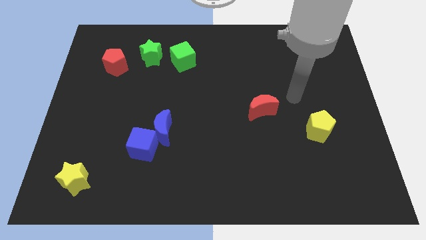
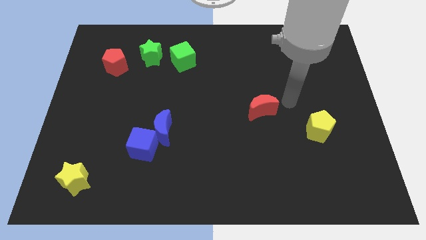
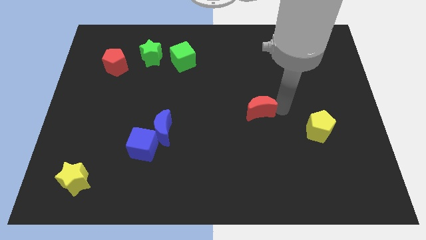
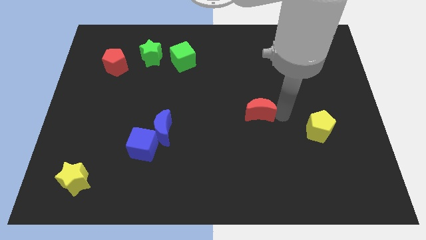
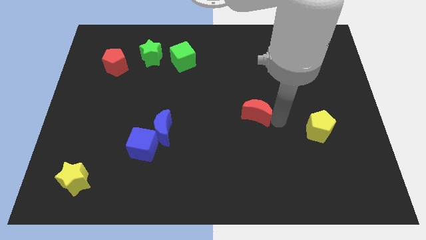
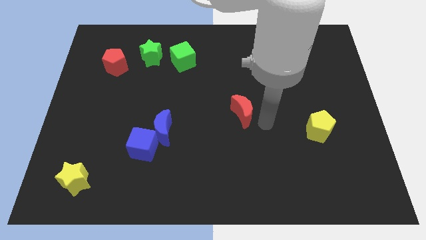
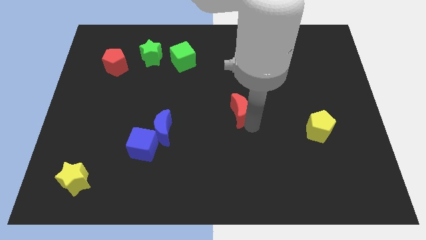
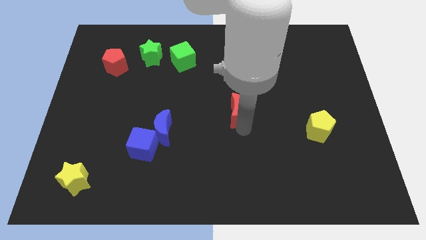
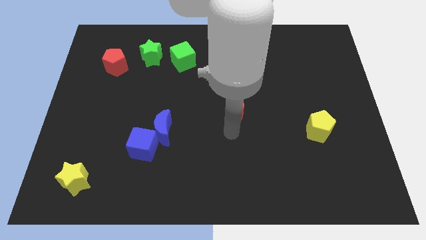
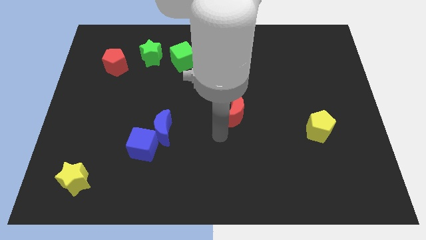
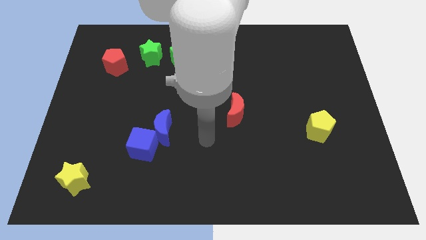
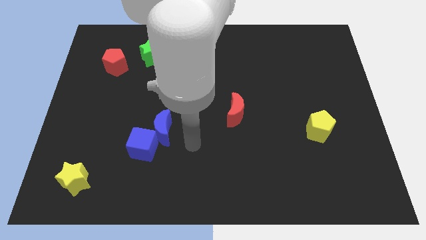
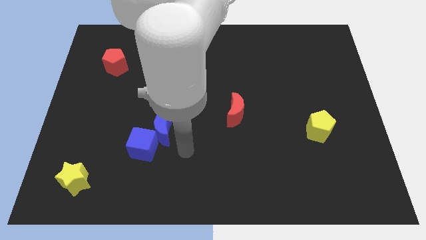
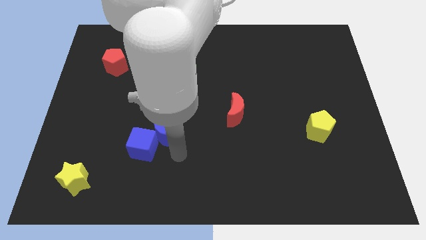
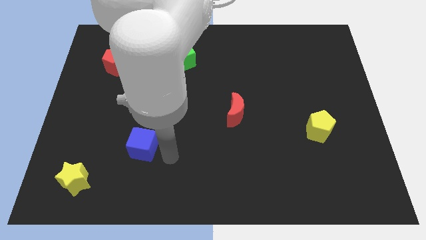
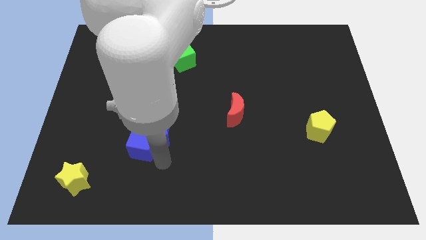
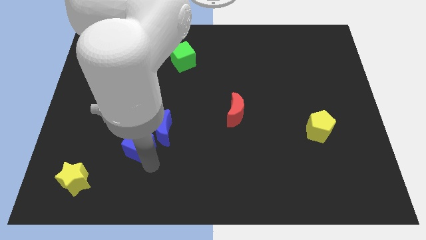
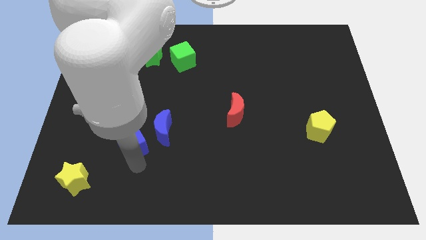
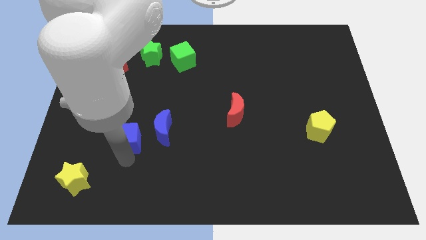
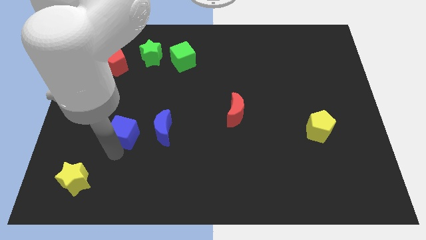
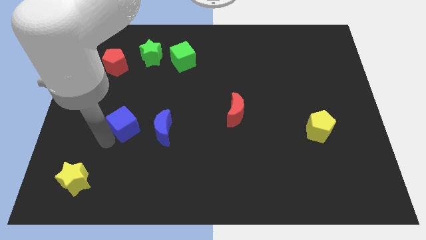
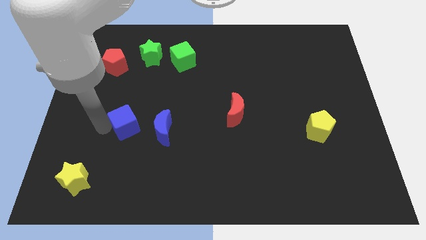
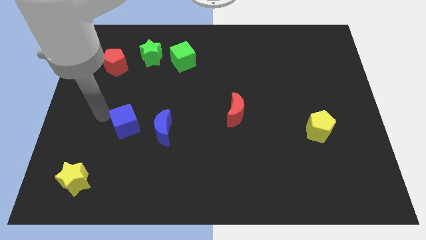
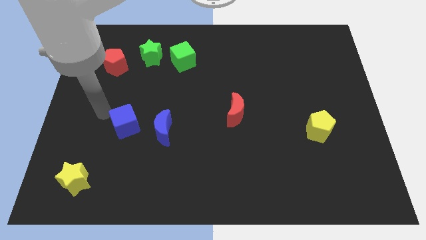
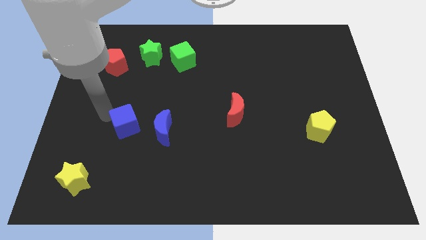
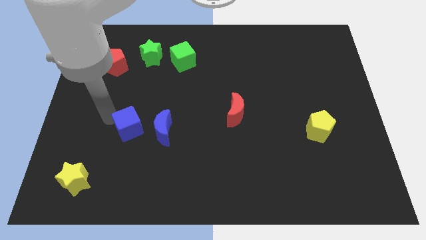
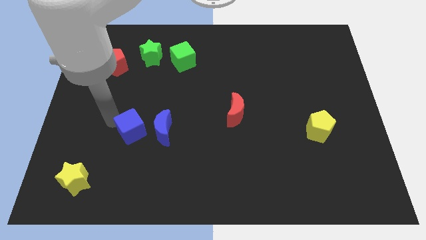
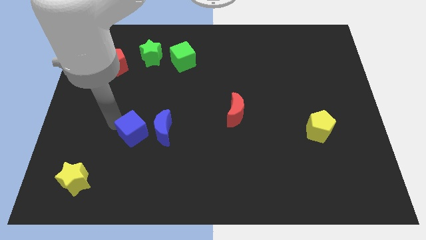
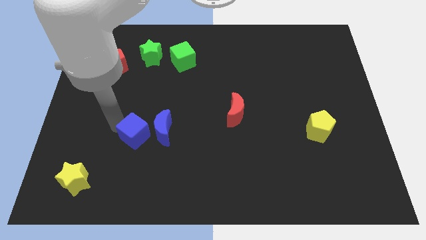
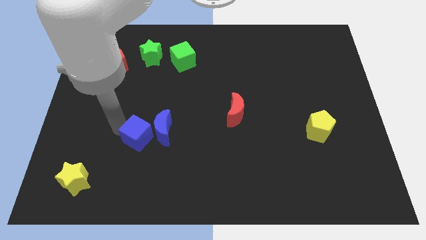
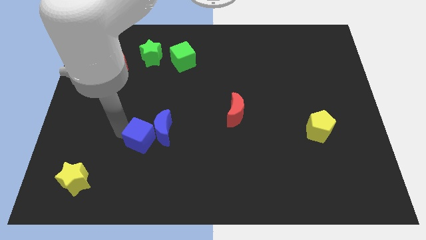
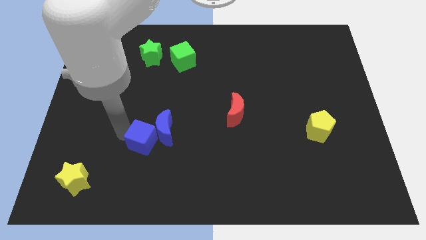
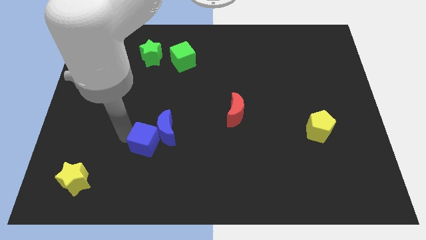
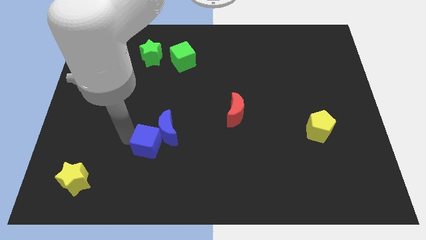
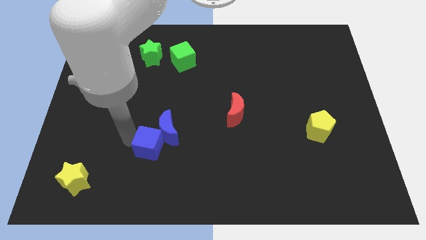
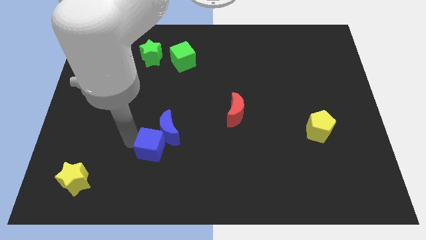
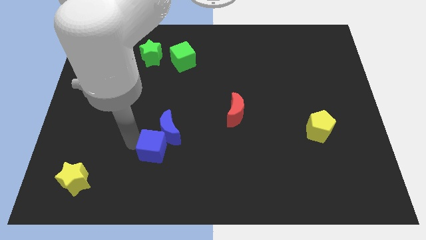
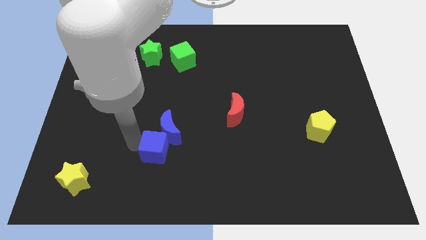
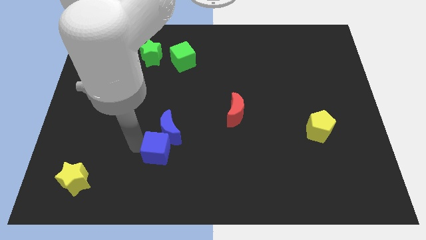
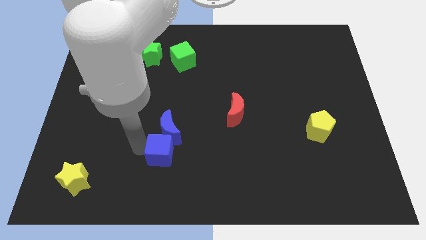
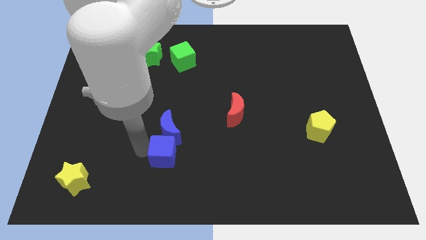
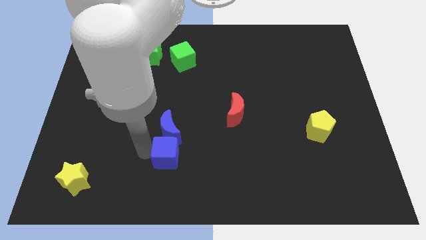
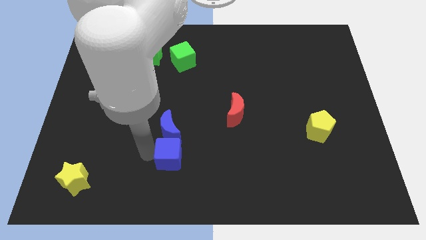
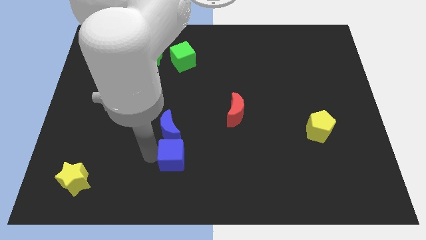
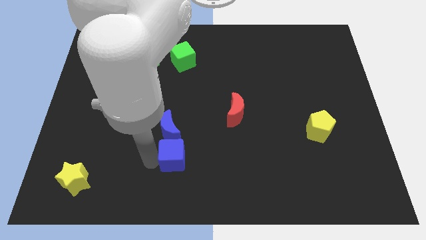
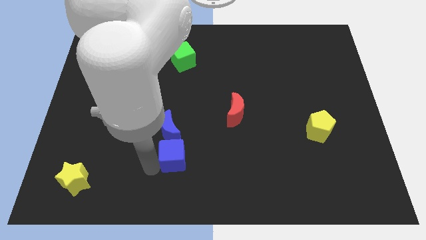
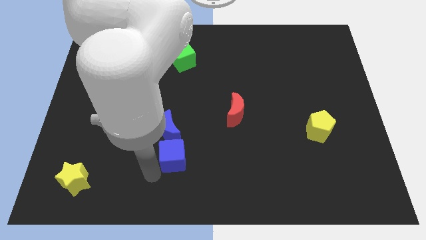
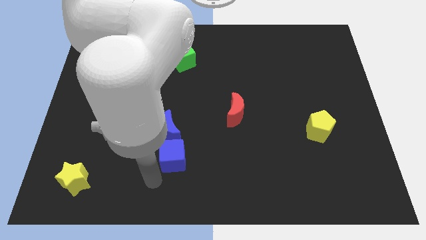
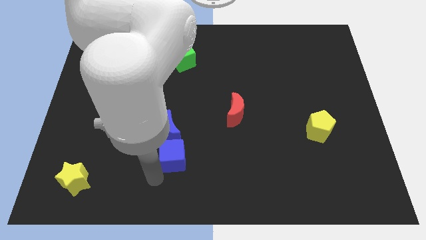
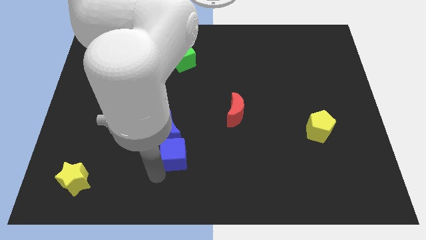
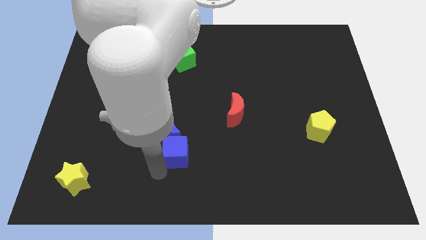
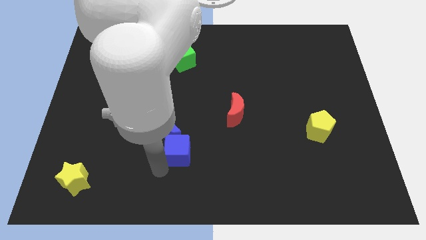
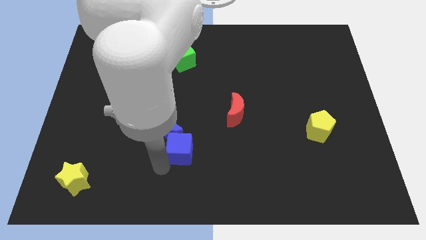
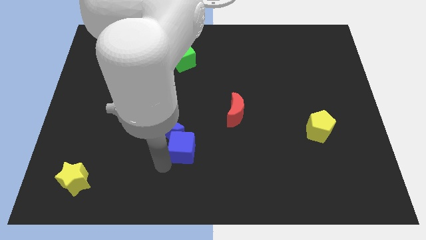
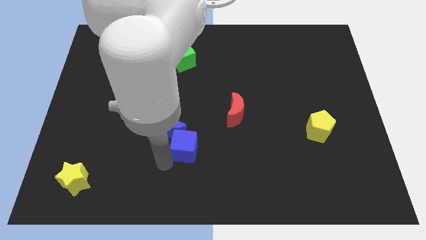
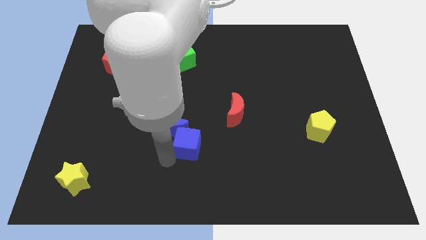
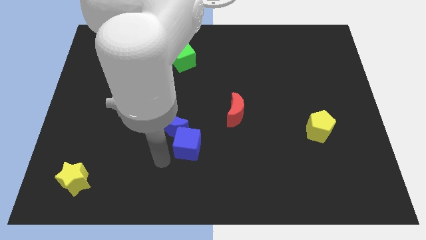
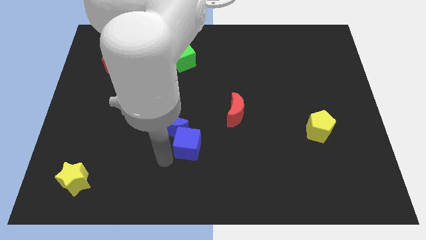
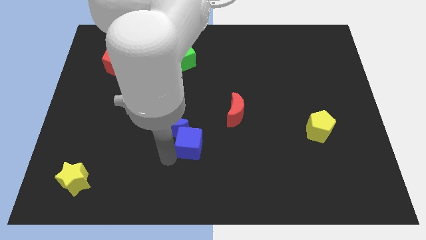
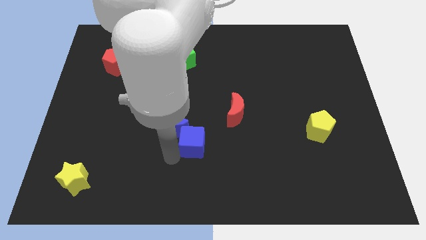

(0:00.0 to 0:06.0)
push the blue cube diagonally down and to the left of the red moon

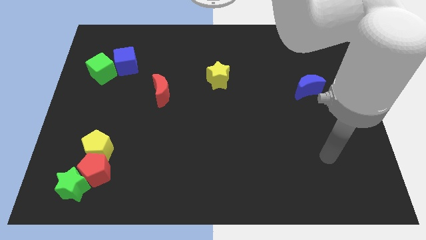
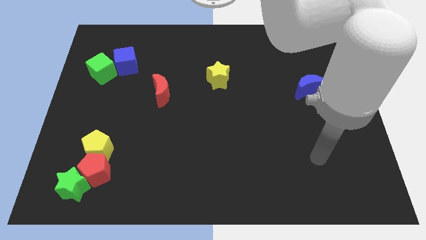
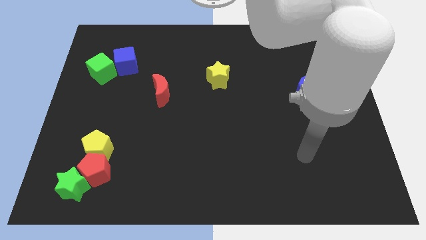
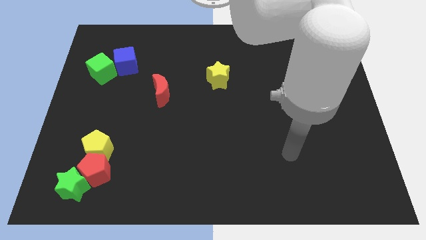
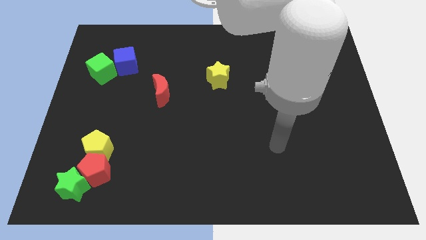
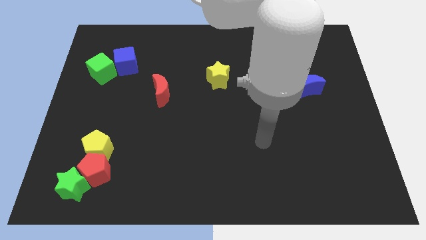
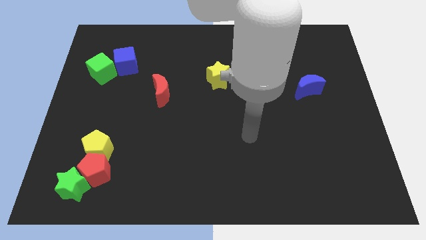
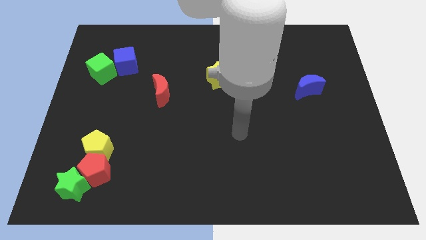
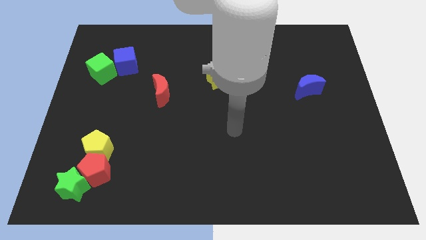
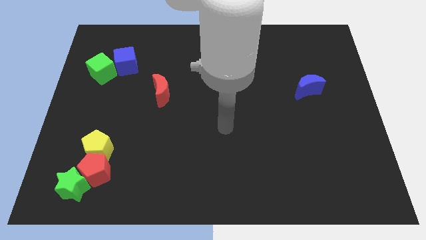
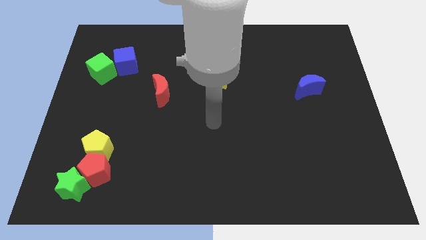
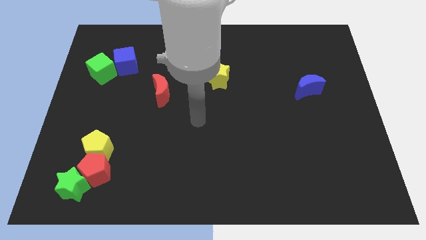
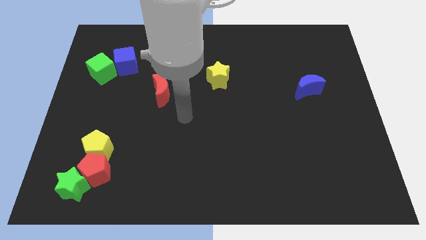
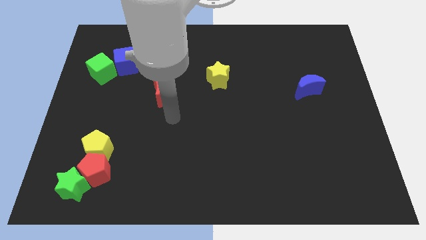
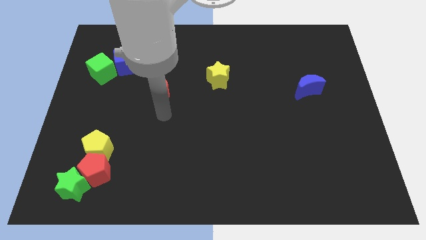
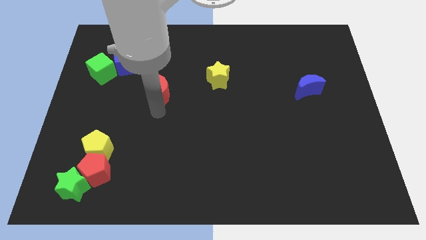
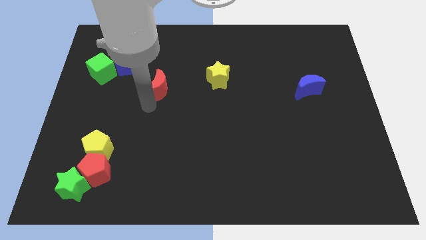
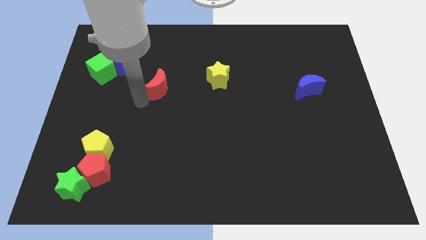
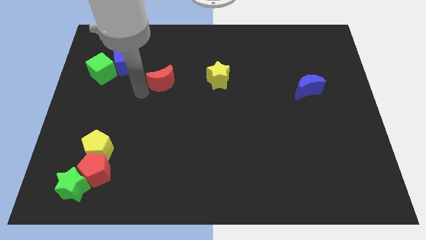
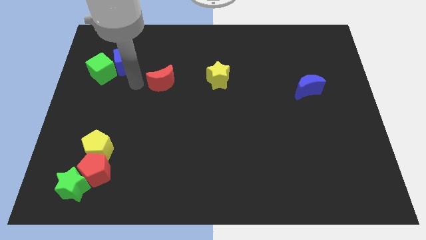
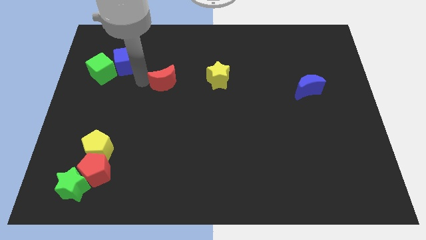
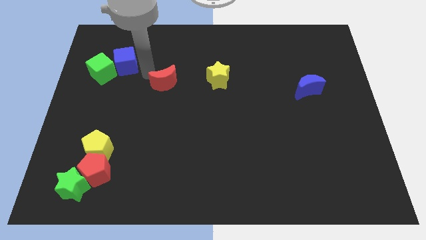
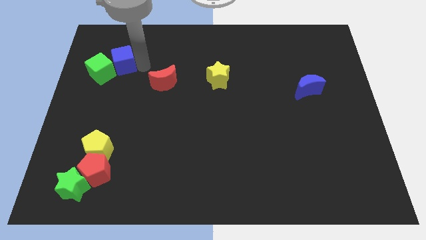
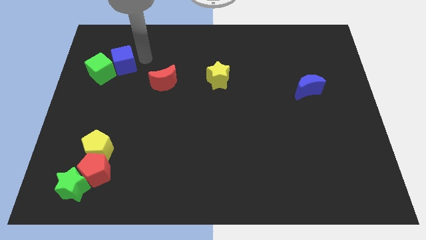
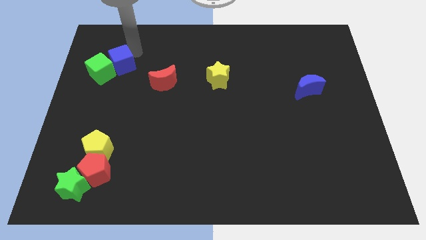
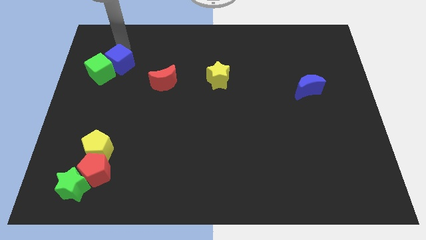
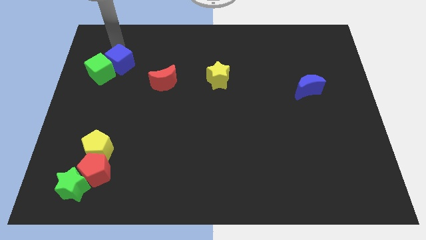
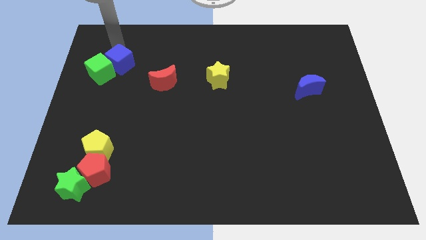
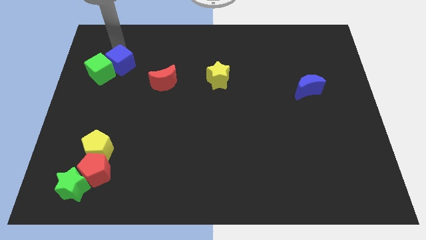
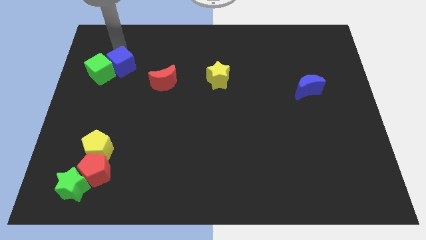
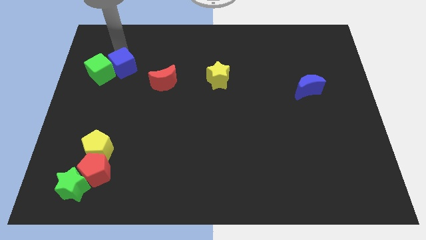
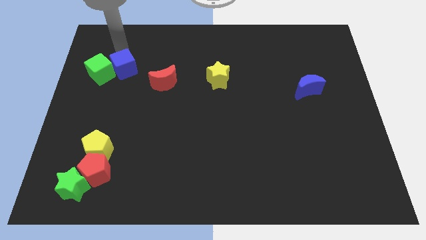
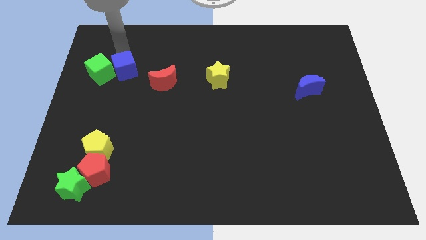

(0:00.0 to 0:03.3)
put the blue cube left of the red moon
